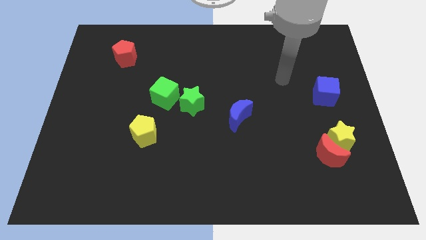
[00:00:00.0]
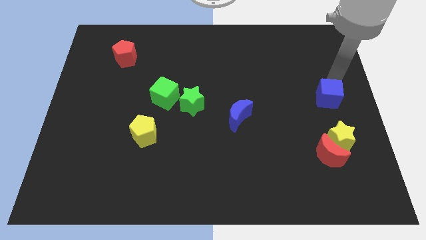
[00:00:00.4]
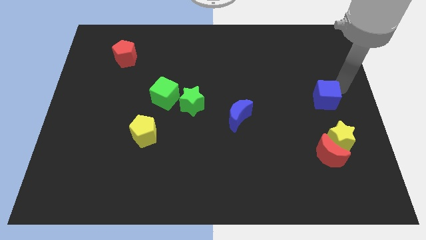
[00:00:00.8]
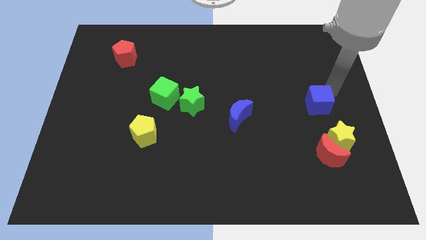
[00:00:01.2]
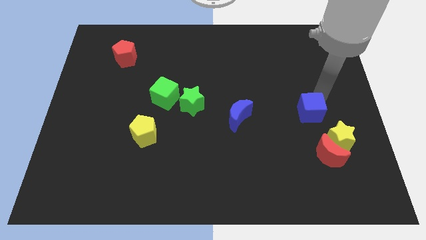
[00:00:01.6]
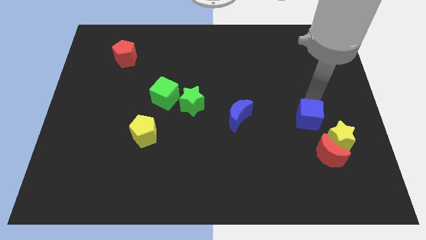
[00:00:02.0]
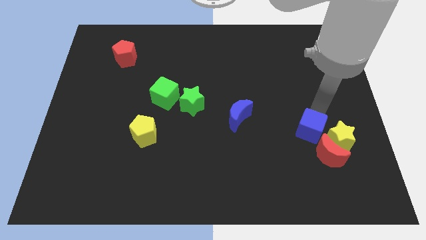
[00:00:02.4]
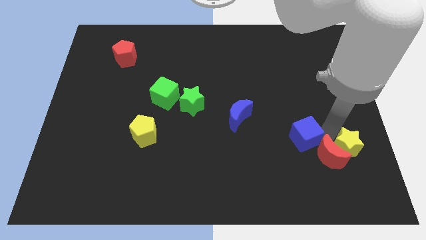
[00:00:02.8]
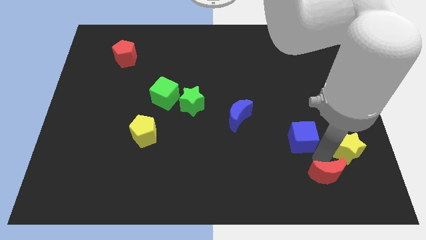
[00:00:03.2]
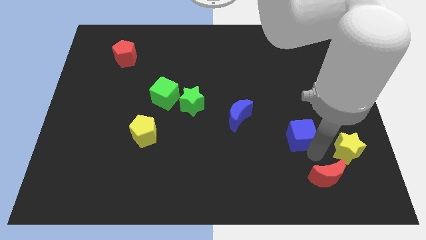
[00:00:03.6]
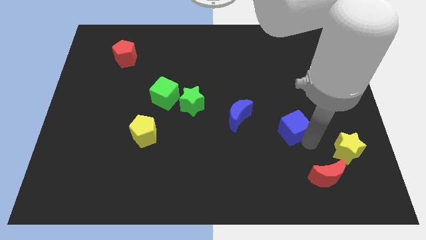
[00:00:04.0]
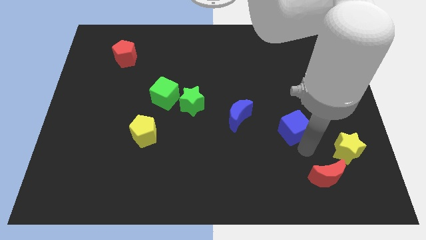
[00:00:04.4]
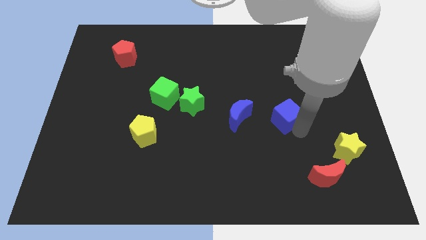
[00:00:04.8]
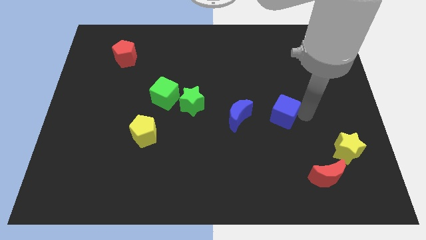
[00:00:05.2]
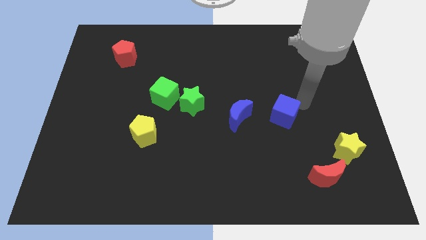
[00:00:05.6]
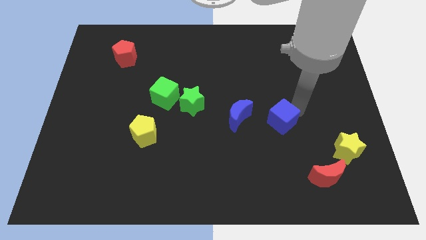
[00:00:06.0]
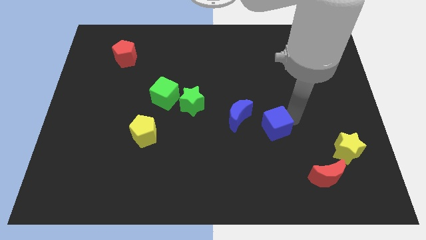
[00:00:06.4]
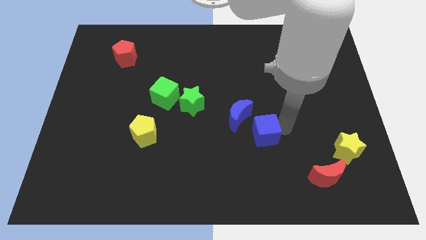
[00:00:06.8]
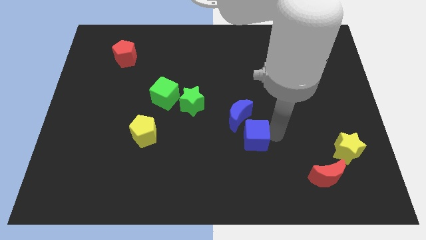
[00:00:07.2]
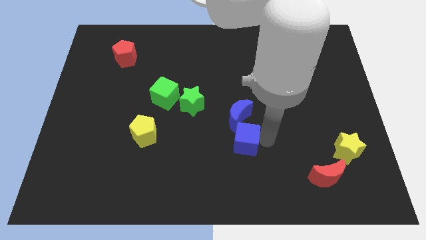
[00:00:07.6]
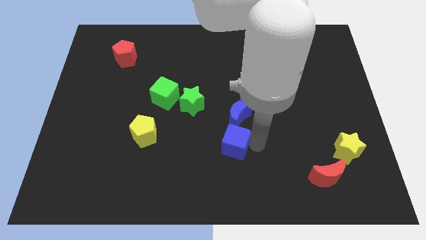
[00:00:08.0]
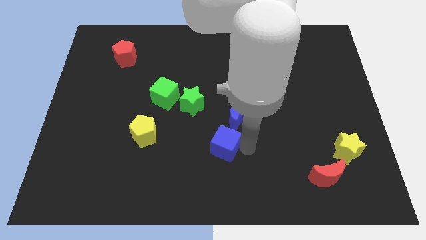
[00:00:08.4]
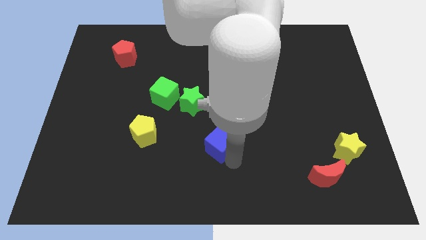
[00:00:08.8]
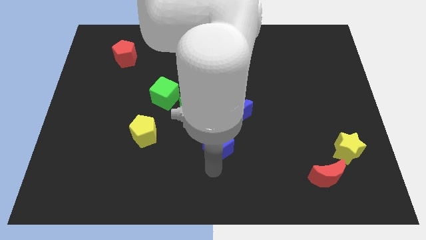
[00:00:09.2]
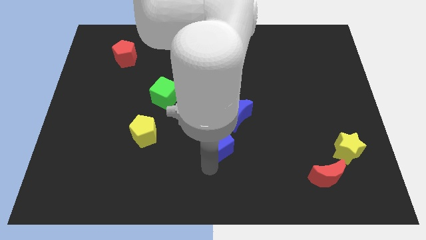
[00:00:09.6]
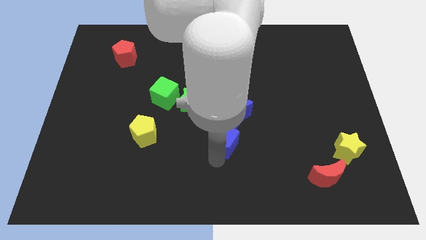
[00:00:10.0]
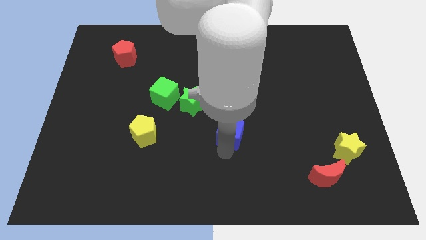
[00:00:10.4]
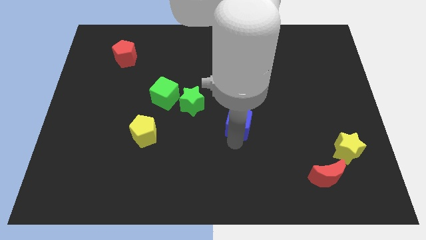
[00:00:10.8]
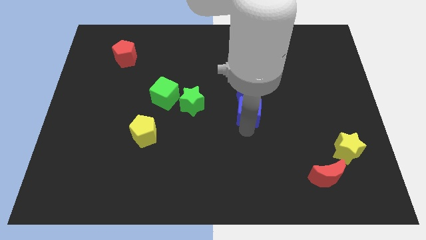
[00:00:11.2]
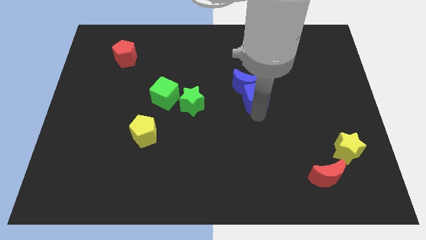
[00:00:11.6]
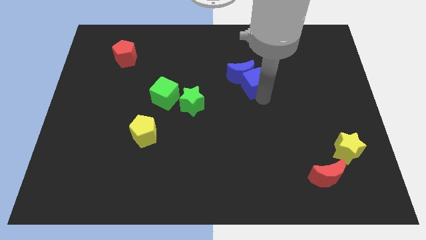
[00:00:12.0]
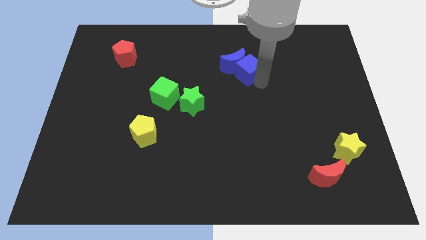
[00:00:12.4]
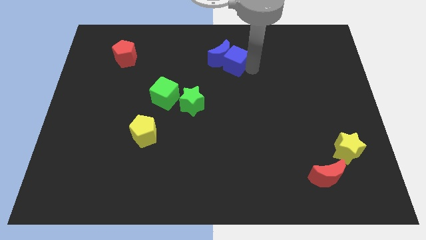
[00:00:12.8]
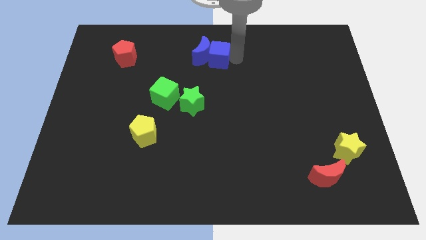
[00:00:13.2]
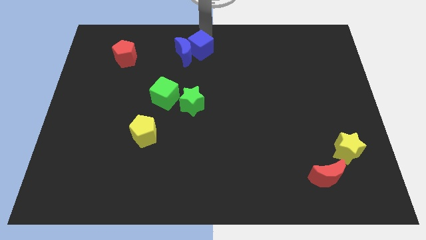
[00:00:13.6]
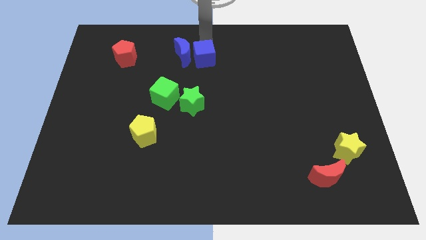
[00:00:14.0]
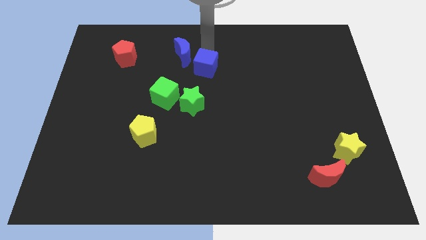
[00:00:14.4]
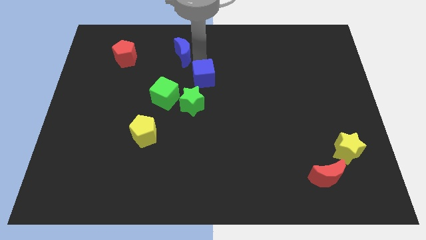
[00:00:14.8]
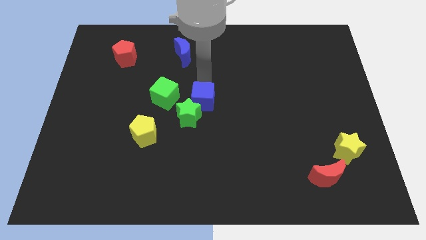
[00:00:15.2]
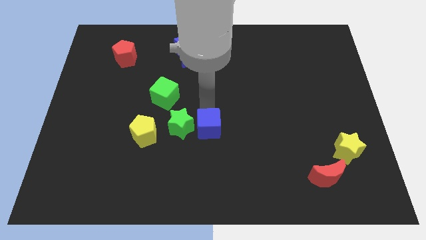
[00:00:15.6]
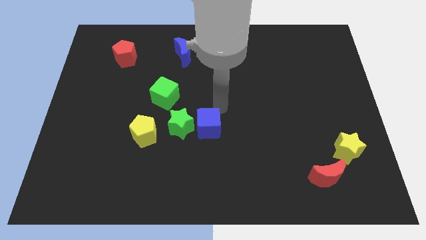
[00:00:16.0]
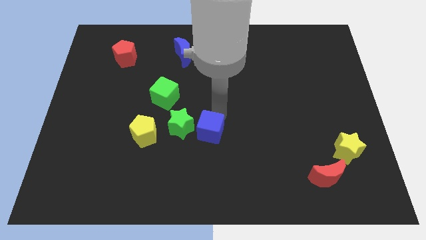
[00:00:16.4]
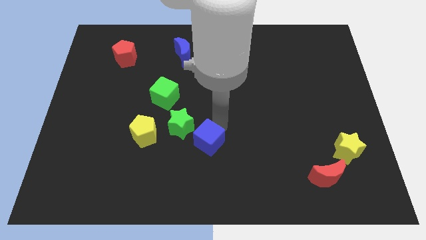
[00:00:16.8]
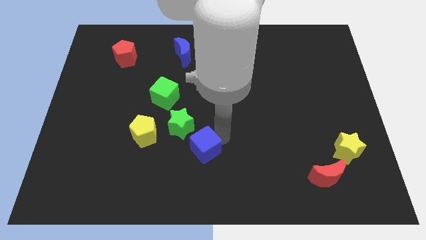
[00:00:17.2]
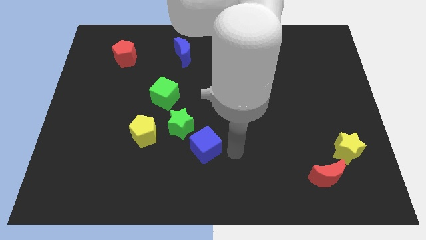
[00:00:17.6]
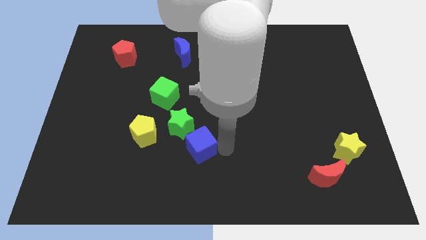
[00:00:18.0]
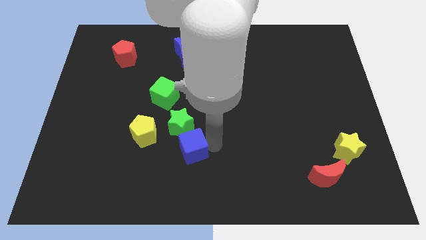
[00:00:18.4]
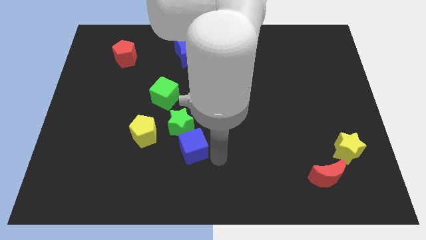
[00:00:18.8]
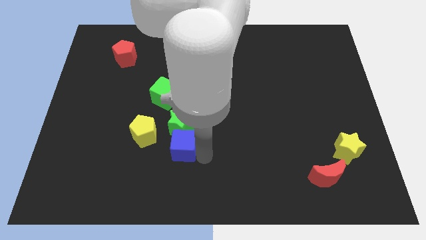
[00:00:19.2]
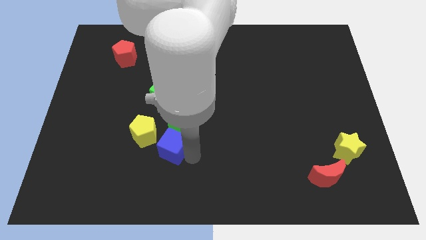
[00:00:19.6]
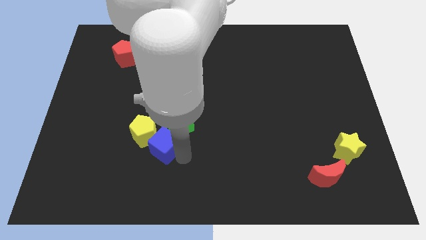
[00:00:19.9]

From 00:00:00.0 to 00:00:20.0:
put the blue cube close to the yellow pentagon

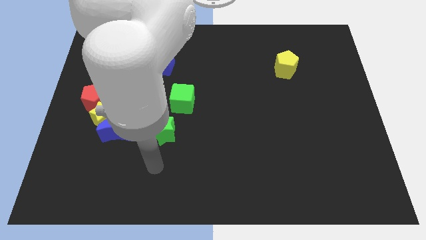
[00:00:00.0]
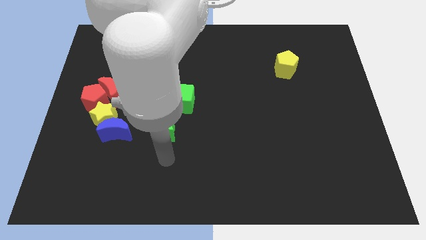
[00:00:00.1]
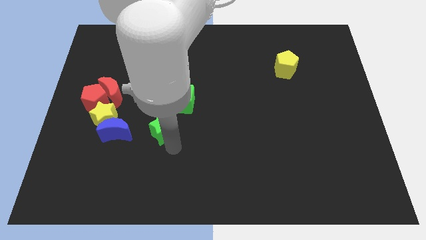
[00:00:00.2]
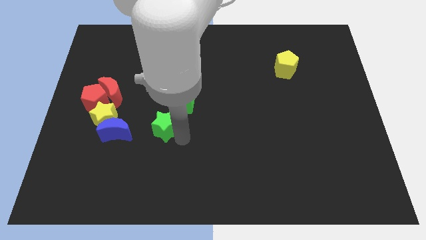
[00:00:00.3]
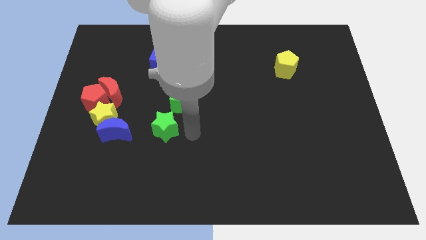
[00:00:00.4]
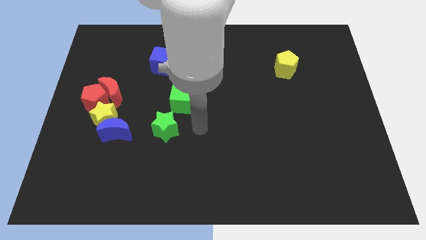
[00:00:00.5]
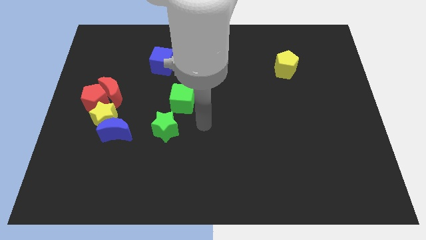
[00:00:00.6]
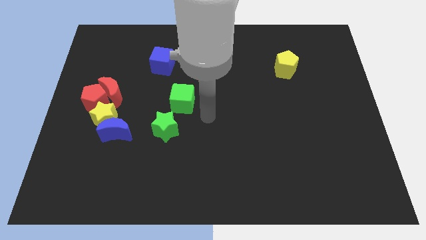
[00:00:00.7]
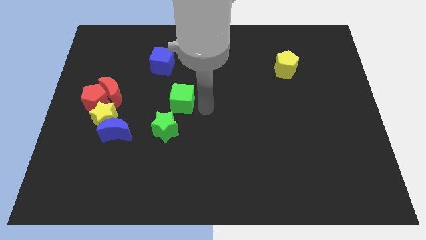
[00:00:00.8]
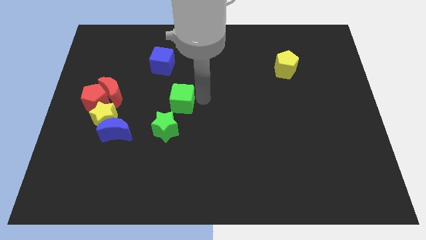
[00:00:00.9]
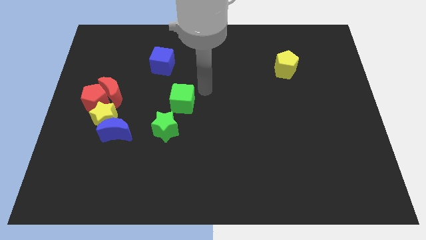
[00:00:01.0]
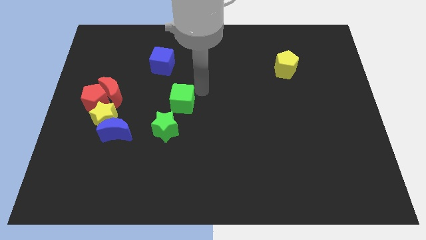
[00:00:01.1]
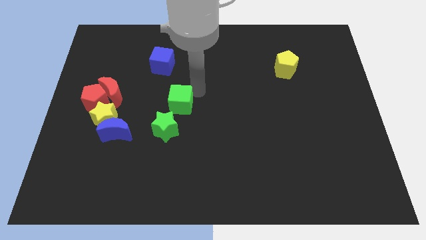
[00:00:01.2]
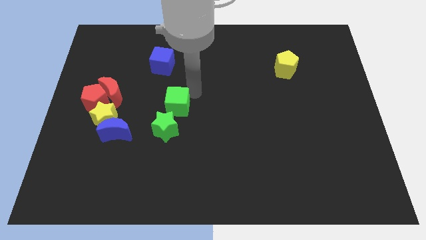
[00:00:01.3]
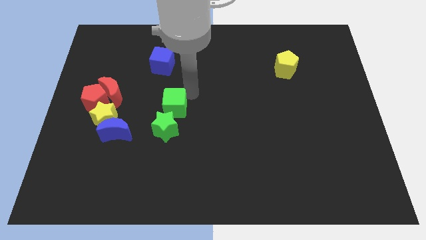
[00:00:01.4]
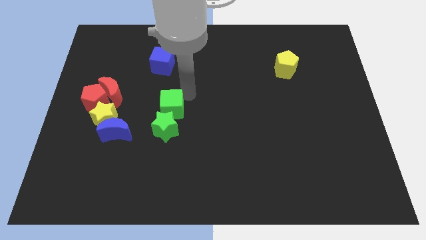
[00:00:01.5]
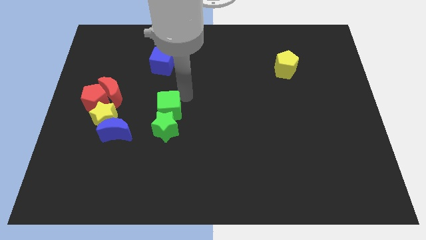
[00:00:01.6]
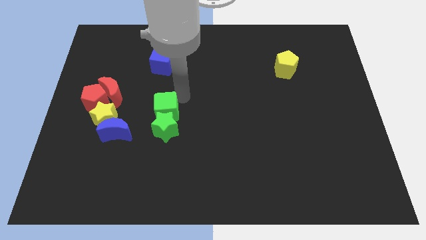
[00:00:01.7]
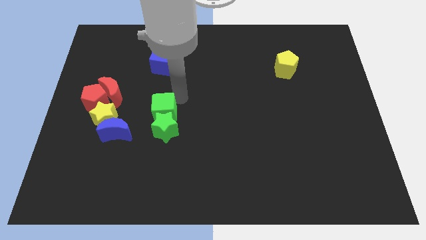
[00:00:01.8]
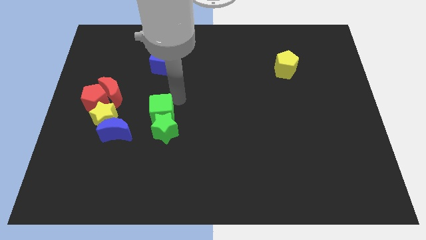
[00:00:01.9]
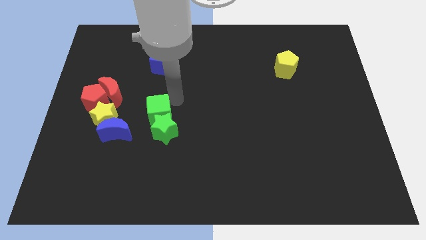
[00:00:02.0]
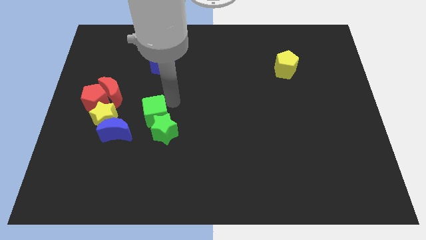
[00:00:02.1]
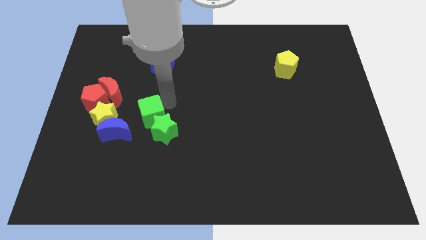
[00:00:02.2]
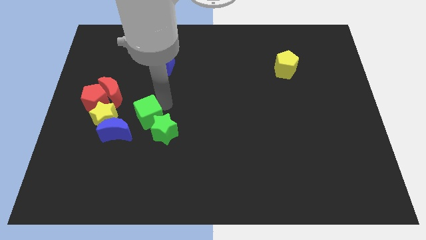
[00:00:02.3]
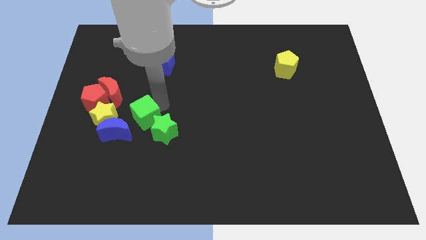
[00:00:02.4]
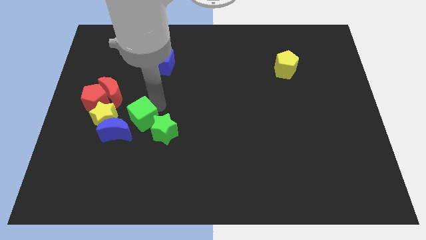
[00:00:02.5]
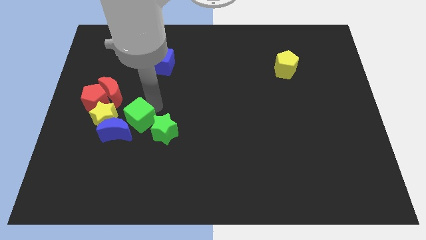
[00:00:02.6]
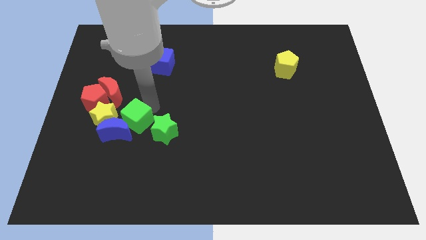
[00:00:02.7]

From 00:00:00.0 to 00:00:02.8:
push the green cube next to the blue moon
